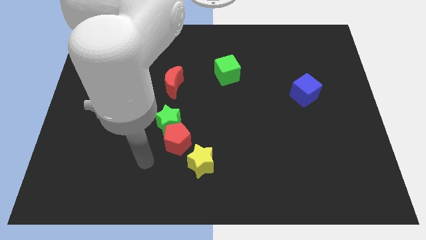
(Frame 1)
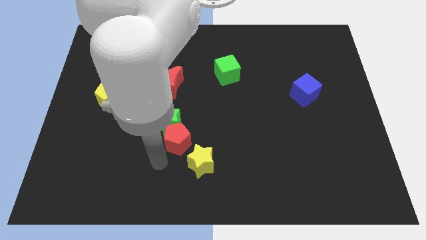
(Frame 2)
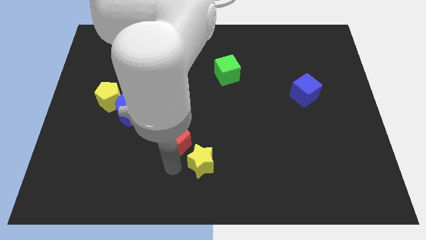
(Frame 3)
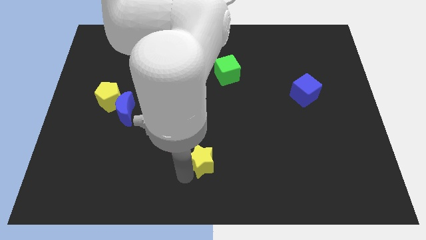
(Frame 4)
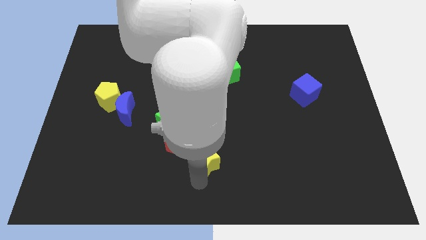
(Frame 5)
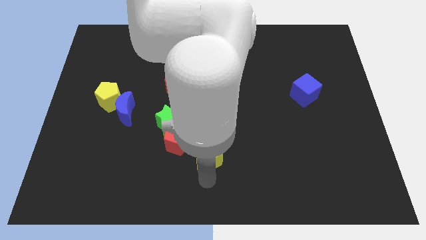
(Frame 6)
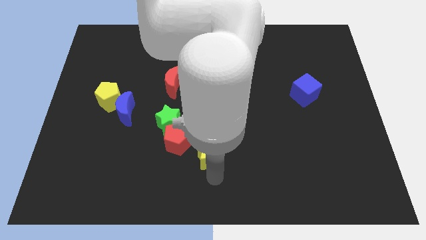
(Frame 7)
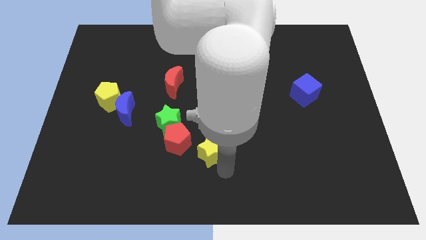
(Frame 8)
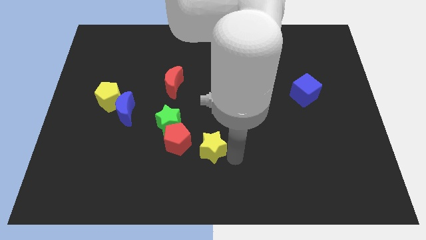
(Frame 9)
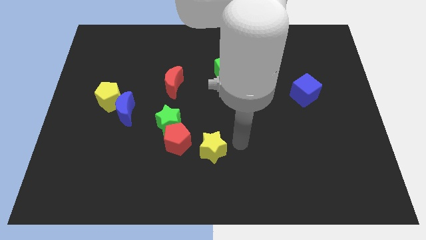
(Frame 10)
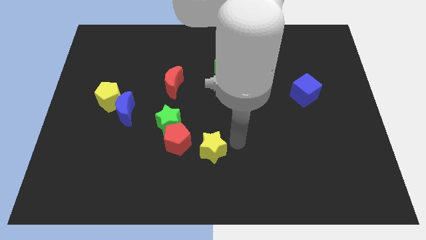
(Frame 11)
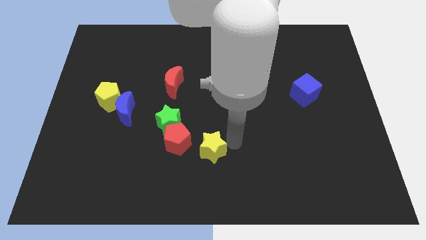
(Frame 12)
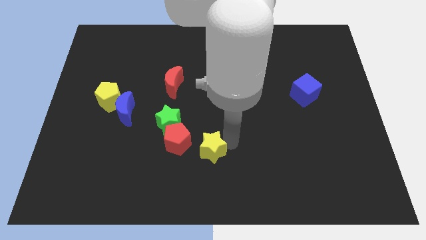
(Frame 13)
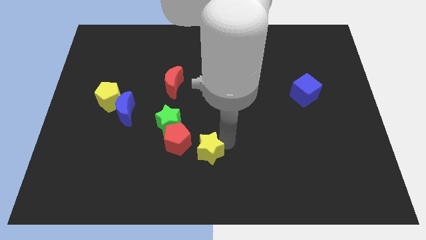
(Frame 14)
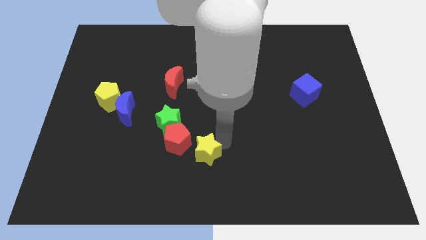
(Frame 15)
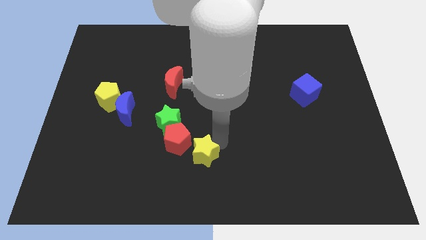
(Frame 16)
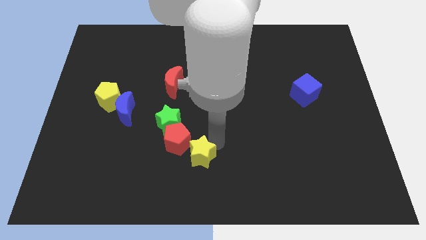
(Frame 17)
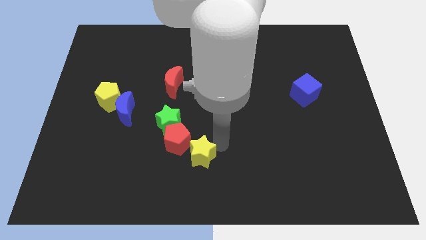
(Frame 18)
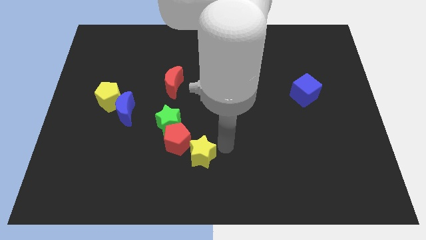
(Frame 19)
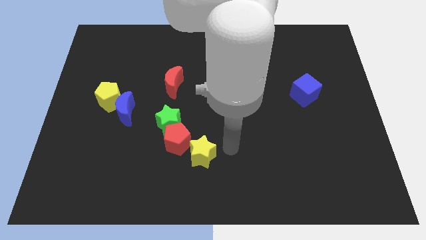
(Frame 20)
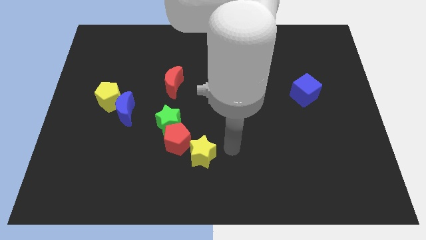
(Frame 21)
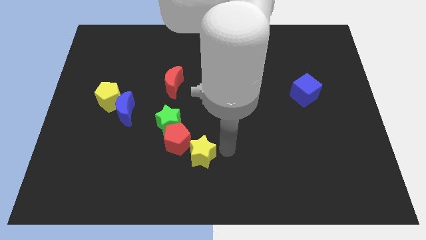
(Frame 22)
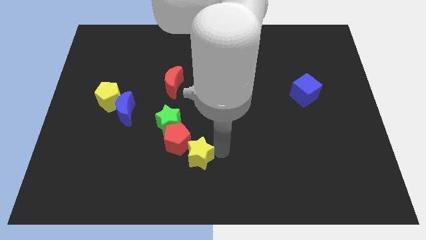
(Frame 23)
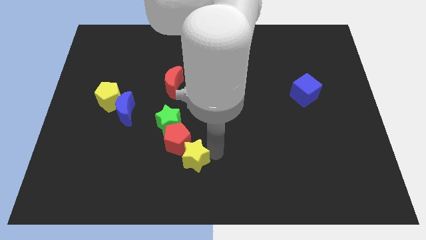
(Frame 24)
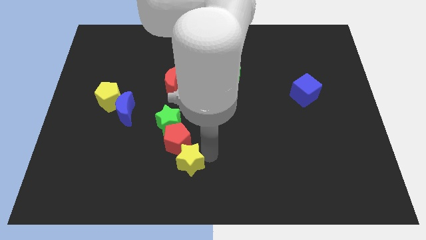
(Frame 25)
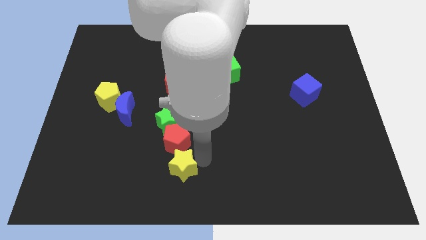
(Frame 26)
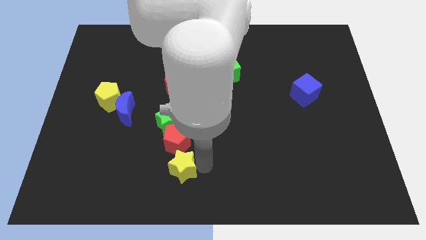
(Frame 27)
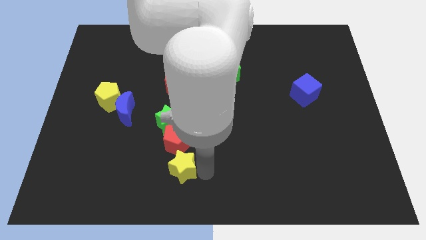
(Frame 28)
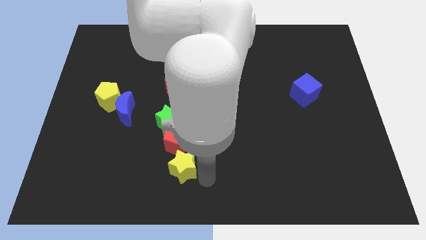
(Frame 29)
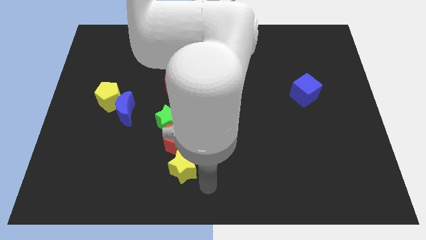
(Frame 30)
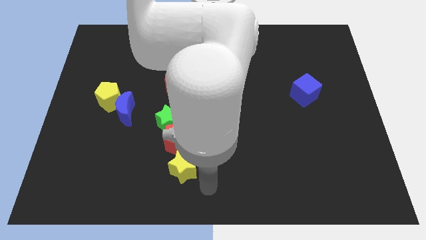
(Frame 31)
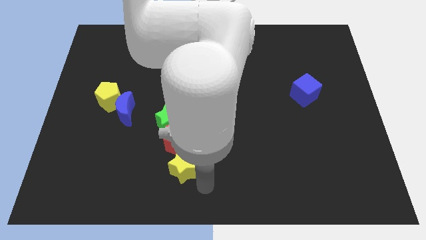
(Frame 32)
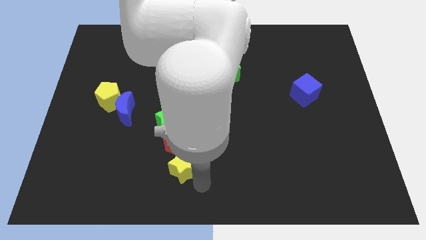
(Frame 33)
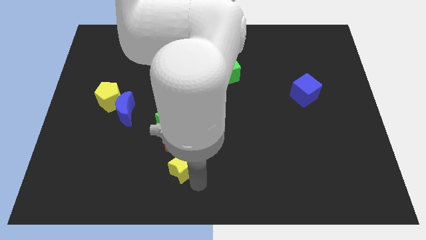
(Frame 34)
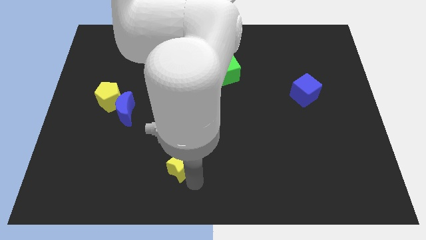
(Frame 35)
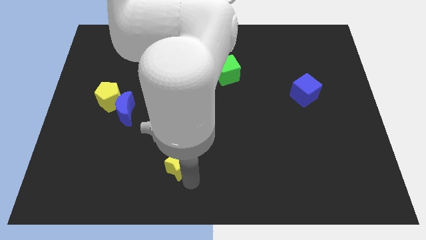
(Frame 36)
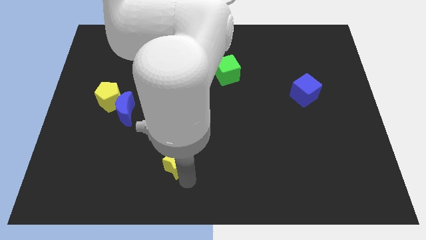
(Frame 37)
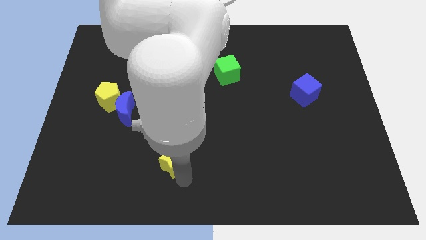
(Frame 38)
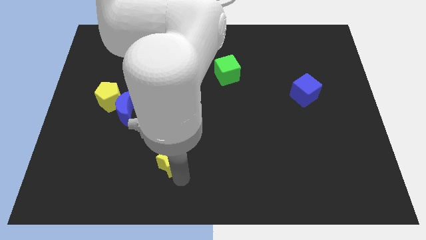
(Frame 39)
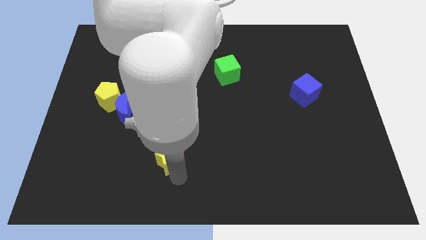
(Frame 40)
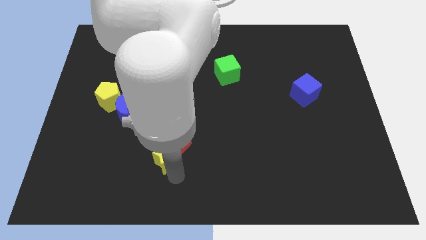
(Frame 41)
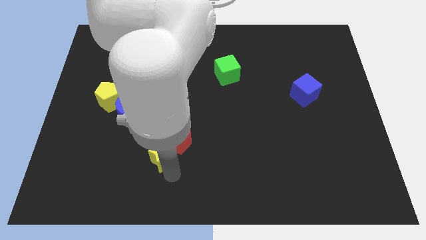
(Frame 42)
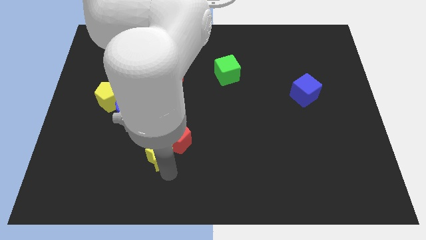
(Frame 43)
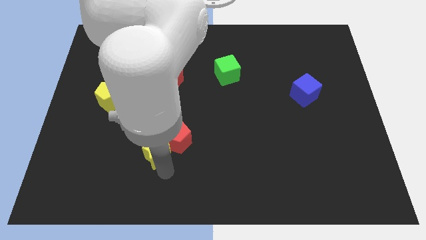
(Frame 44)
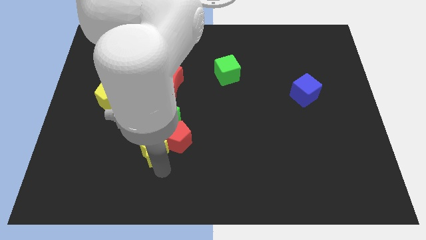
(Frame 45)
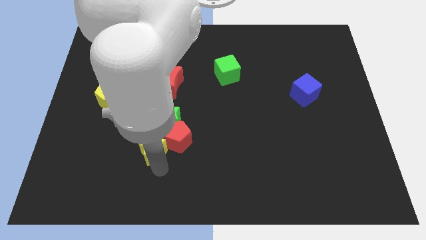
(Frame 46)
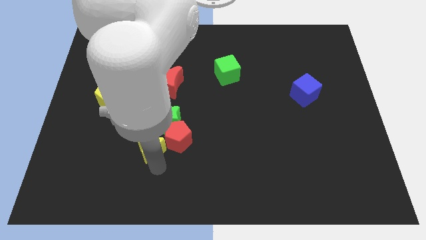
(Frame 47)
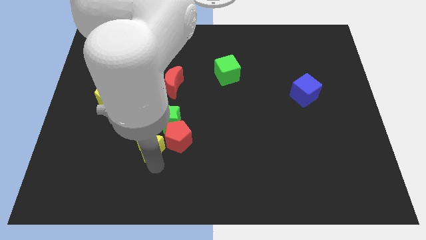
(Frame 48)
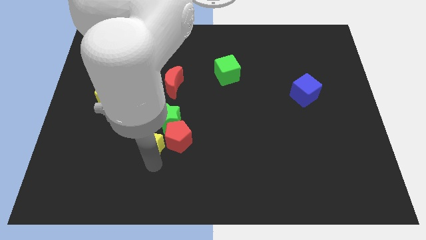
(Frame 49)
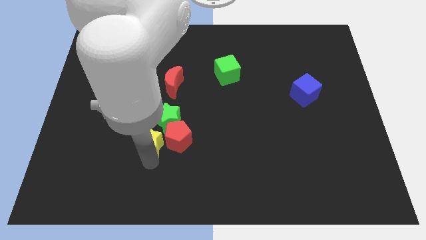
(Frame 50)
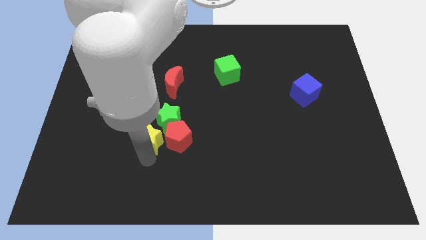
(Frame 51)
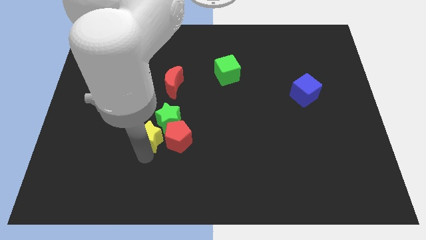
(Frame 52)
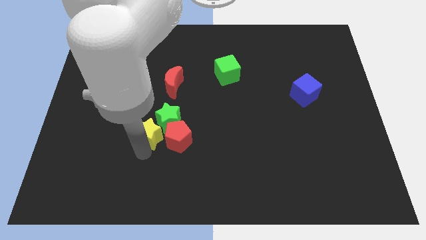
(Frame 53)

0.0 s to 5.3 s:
slide the yellow star to the left side of the green star

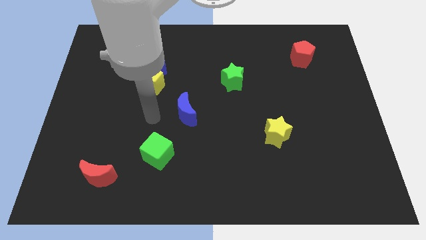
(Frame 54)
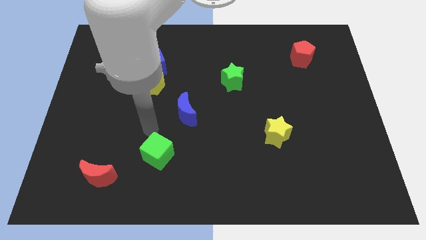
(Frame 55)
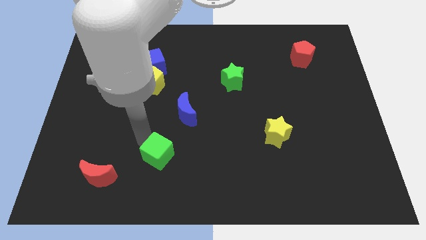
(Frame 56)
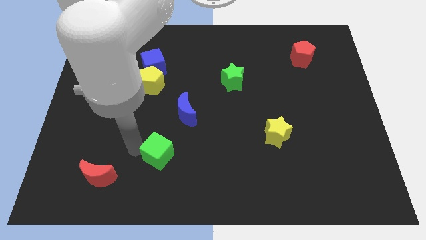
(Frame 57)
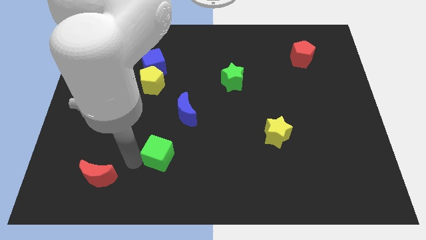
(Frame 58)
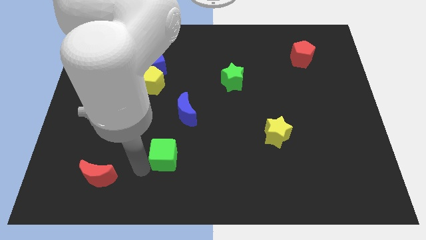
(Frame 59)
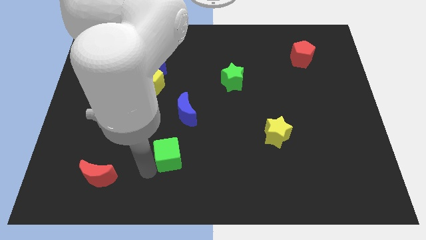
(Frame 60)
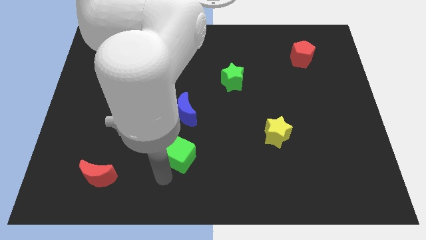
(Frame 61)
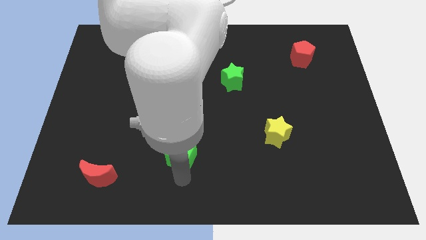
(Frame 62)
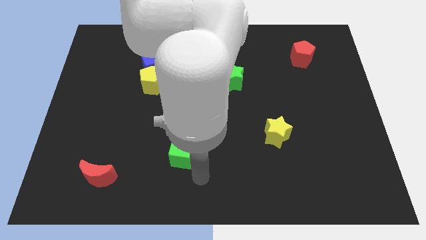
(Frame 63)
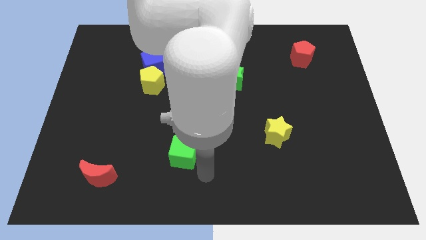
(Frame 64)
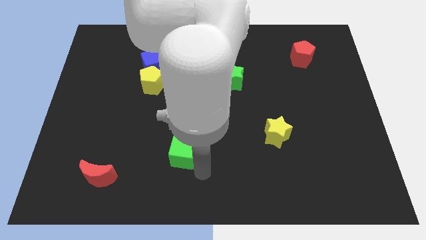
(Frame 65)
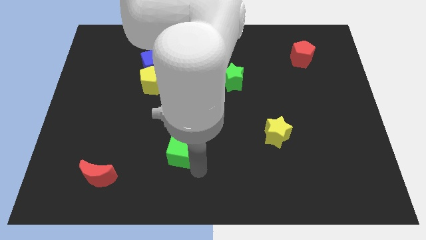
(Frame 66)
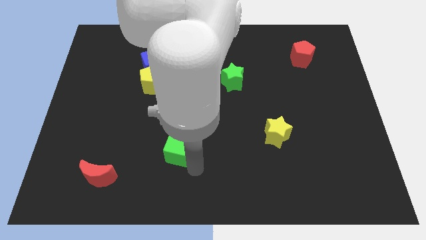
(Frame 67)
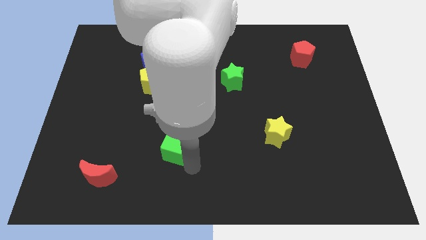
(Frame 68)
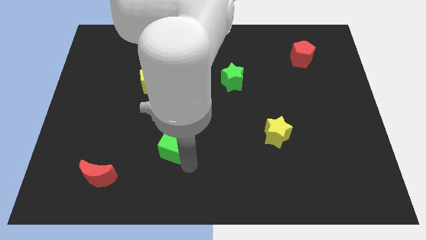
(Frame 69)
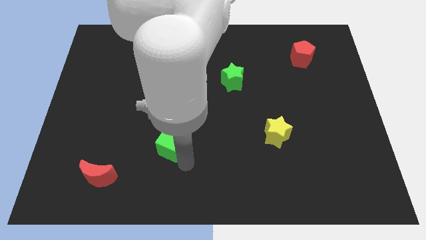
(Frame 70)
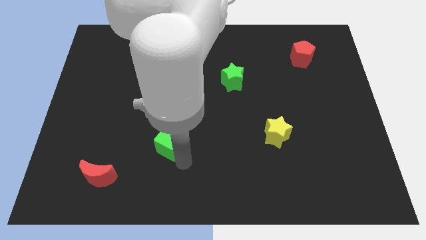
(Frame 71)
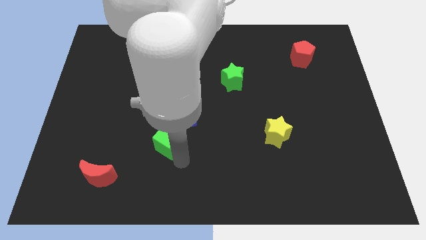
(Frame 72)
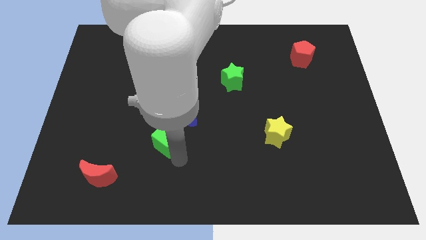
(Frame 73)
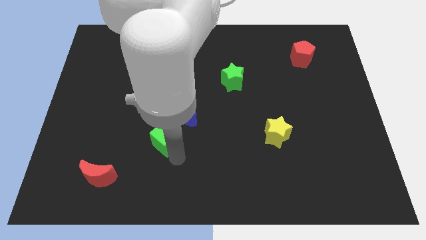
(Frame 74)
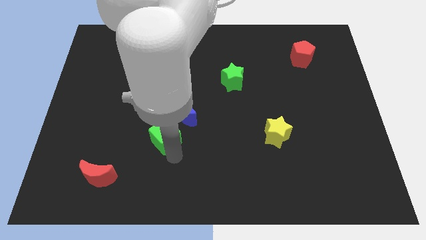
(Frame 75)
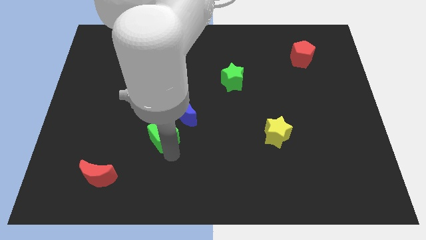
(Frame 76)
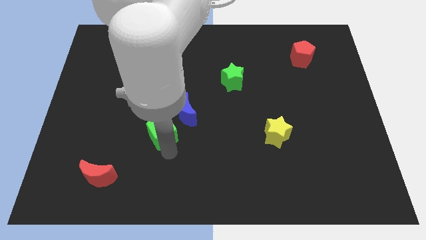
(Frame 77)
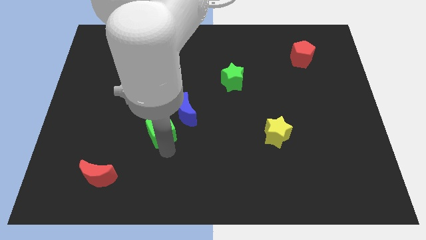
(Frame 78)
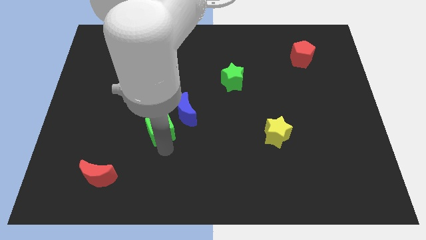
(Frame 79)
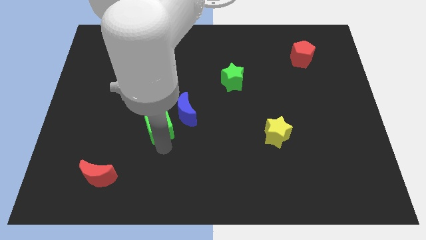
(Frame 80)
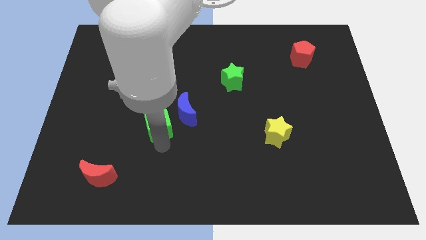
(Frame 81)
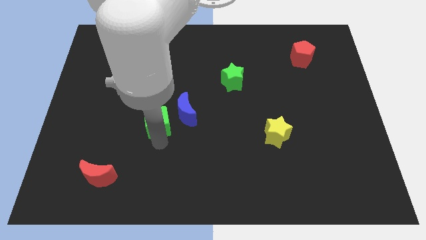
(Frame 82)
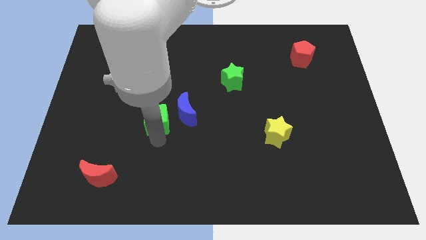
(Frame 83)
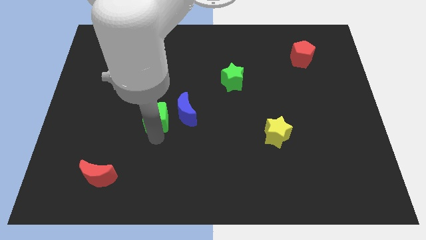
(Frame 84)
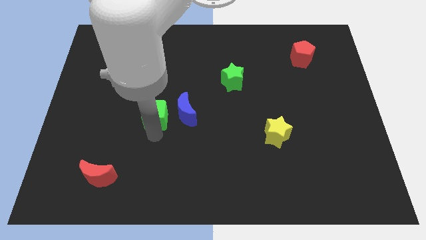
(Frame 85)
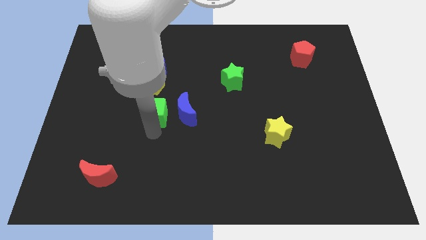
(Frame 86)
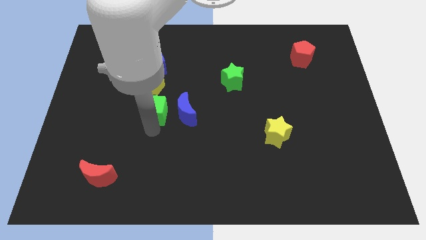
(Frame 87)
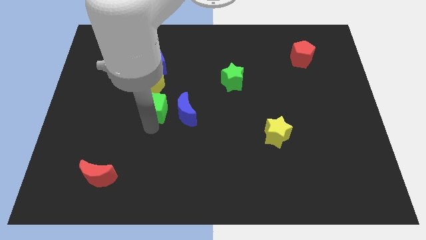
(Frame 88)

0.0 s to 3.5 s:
move the green cube diagonally down and to the right of the yellow pentagon
